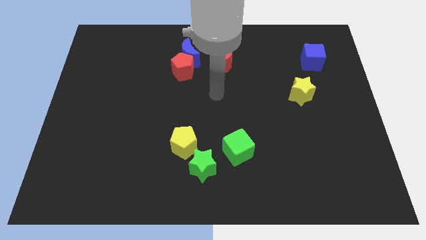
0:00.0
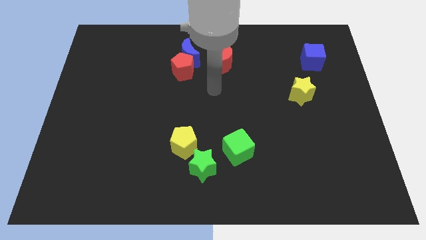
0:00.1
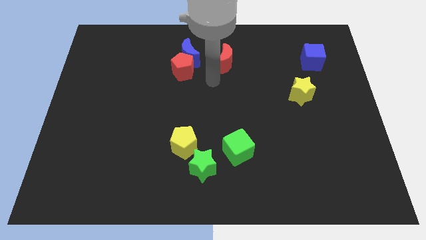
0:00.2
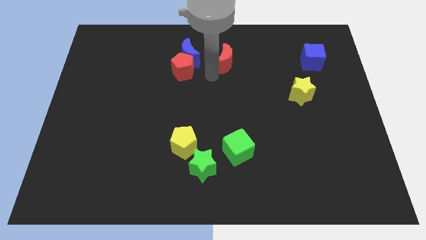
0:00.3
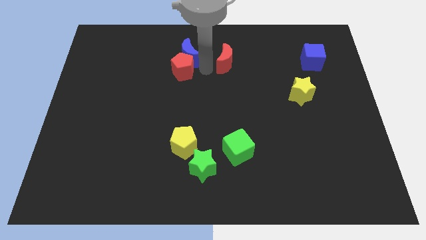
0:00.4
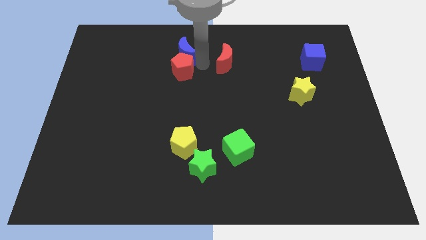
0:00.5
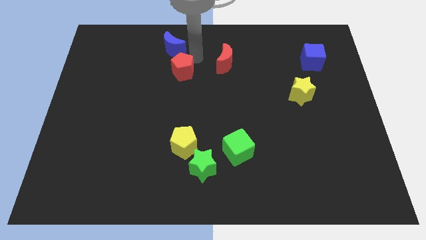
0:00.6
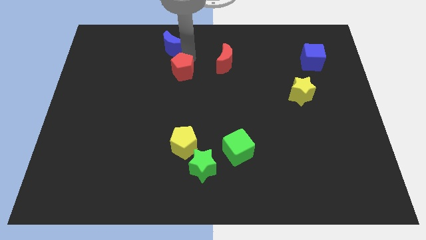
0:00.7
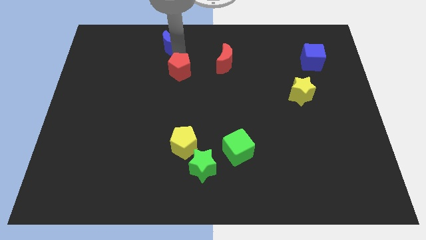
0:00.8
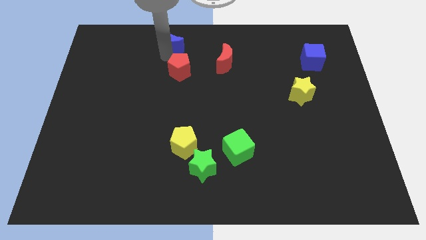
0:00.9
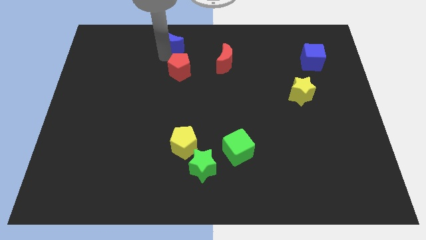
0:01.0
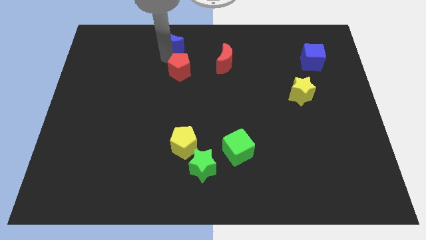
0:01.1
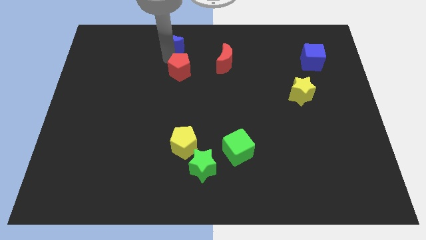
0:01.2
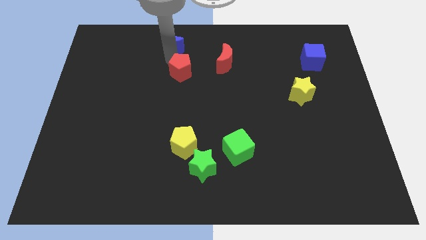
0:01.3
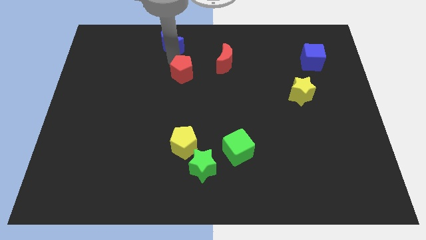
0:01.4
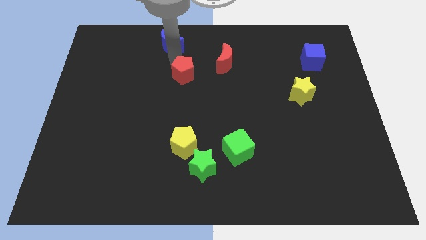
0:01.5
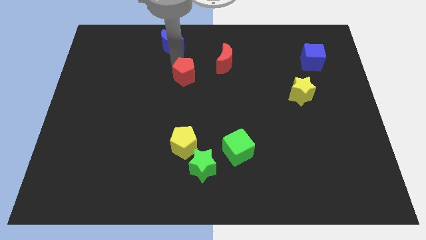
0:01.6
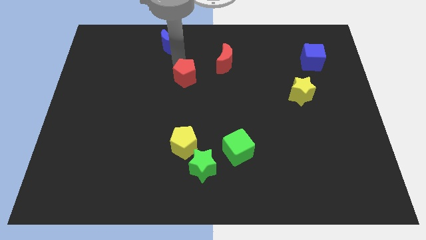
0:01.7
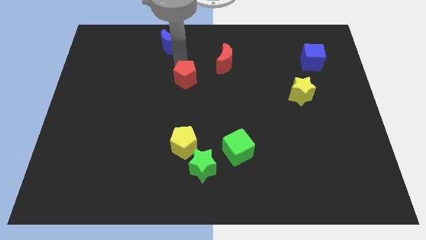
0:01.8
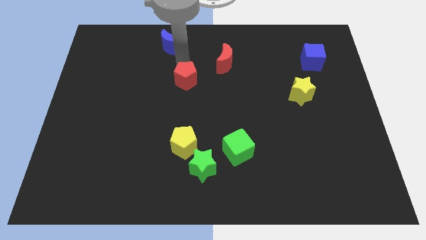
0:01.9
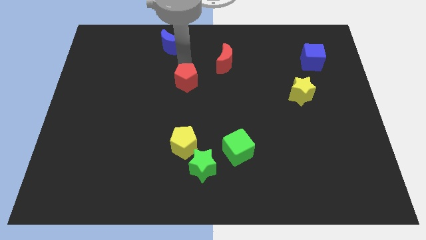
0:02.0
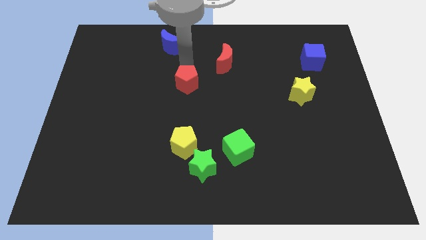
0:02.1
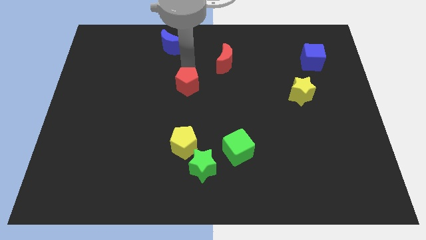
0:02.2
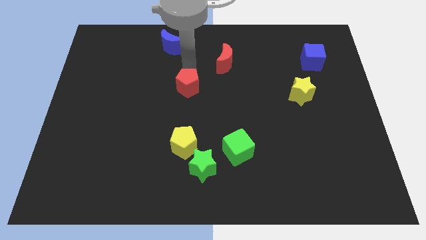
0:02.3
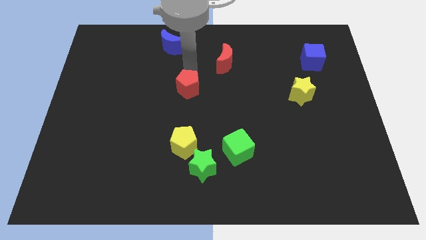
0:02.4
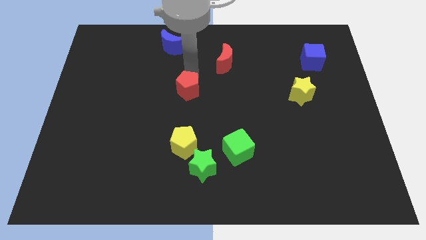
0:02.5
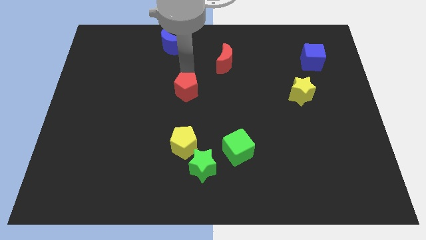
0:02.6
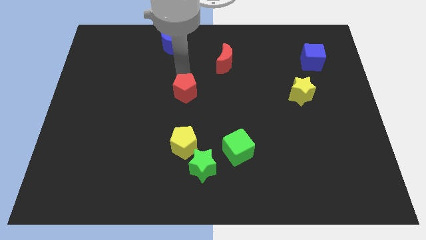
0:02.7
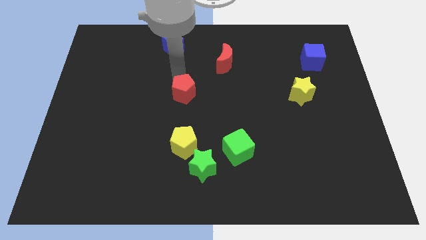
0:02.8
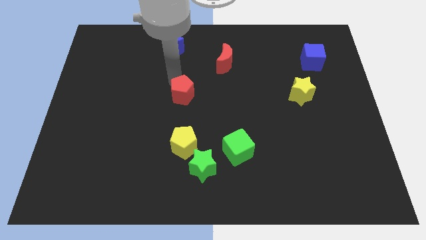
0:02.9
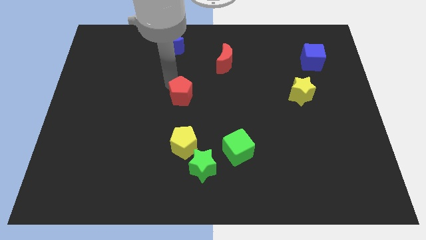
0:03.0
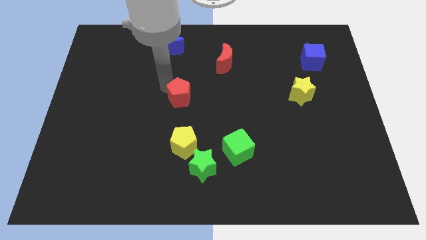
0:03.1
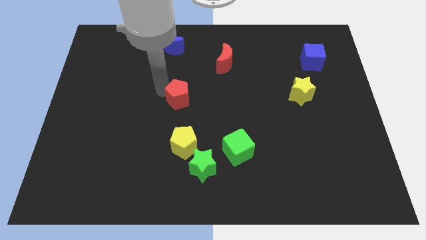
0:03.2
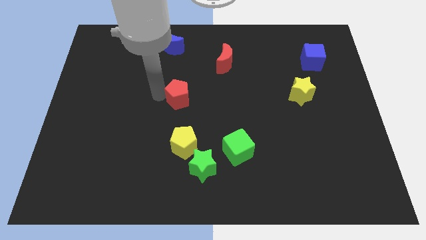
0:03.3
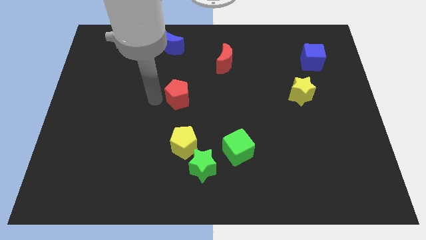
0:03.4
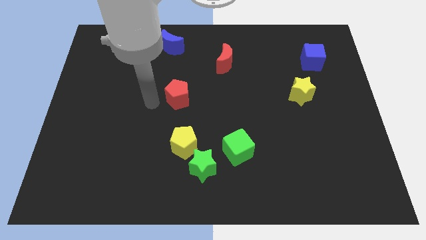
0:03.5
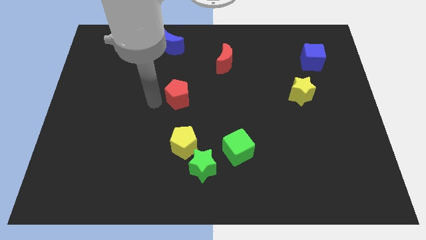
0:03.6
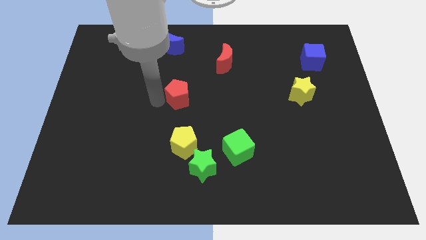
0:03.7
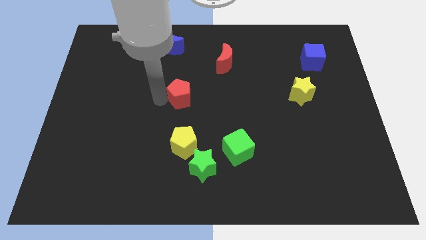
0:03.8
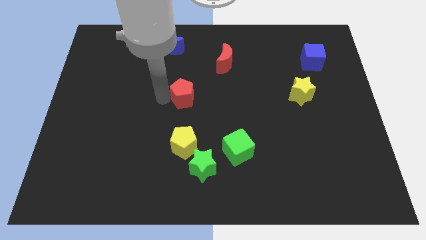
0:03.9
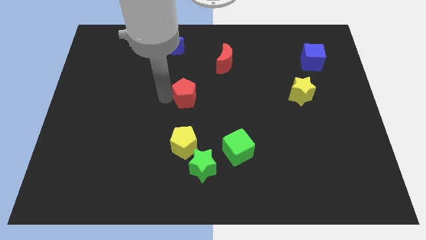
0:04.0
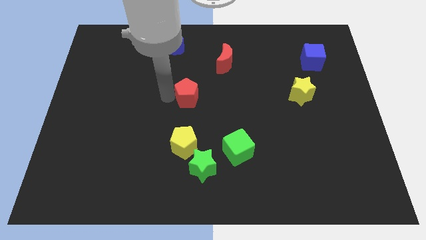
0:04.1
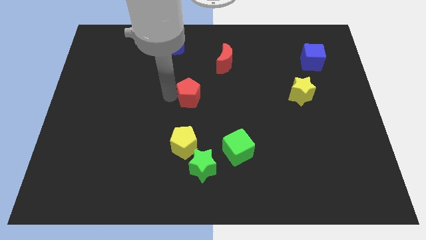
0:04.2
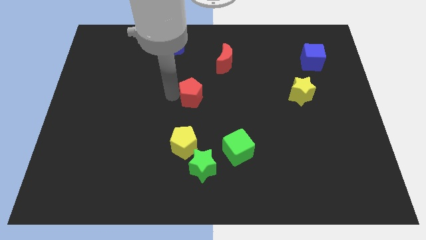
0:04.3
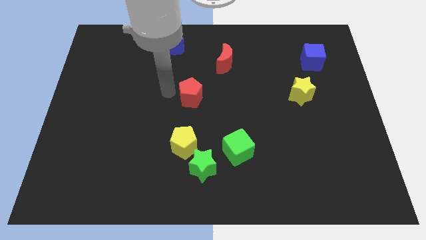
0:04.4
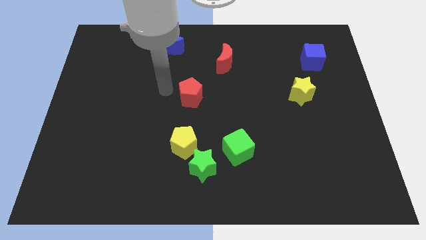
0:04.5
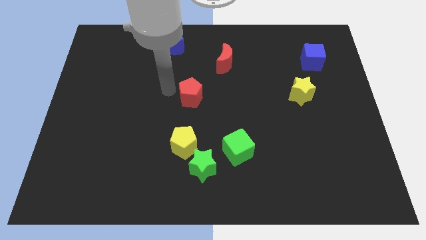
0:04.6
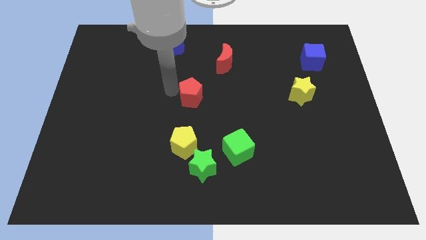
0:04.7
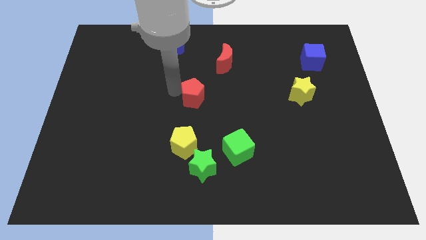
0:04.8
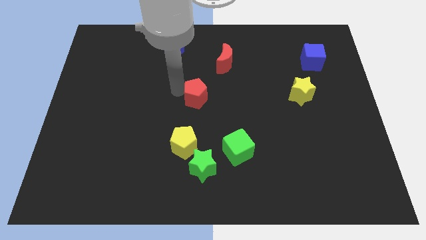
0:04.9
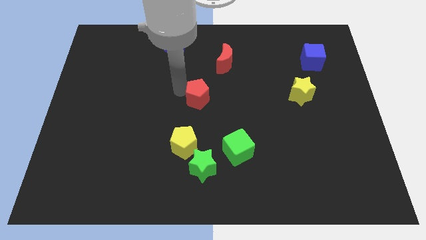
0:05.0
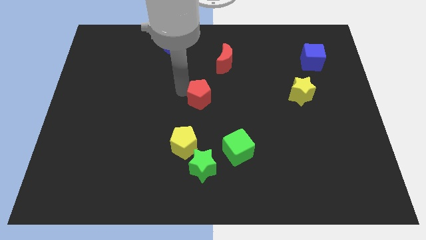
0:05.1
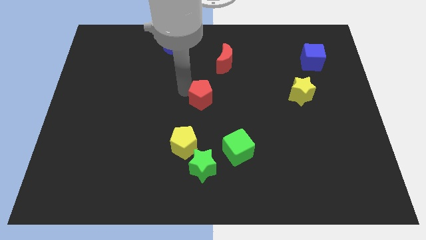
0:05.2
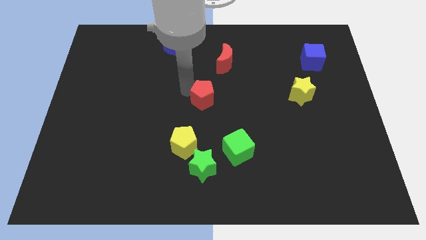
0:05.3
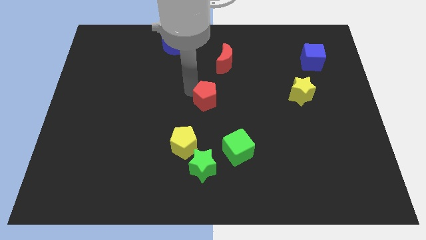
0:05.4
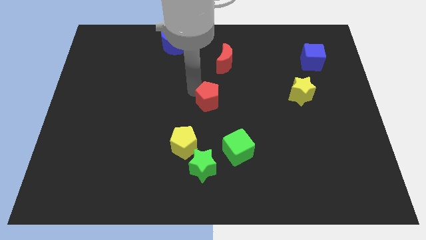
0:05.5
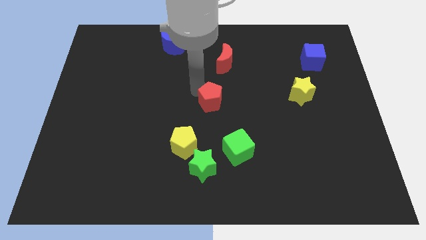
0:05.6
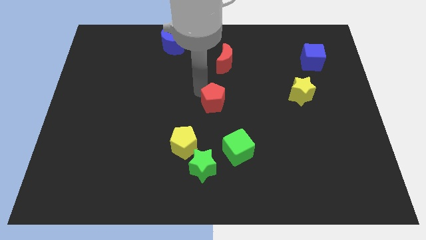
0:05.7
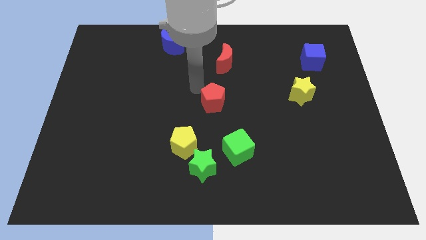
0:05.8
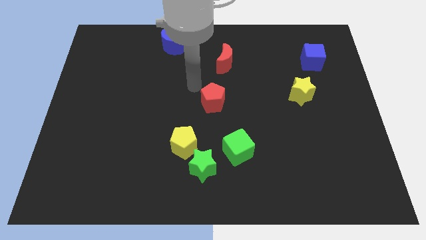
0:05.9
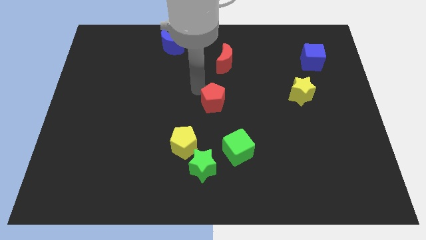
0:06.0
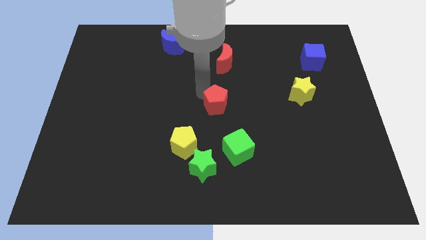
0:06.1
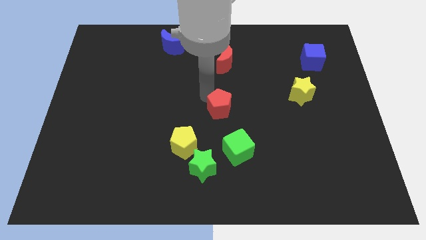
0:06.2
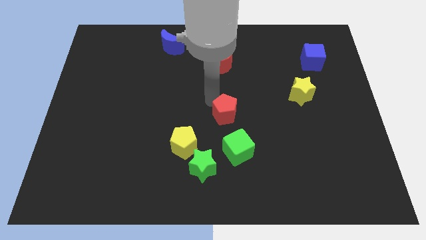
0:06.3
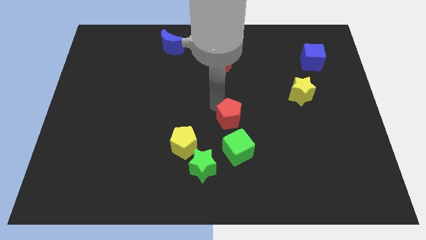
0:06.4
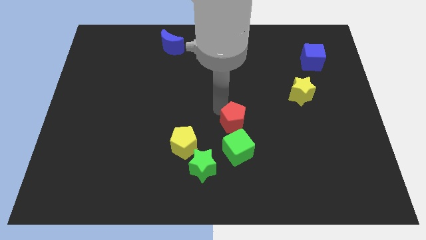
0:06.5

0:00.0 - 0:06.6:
push the red pentagon diagonally downwards and to the right

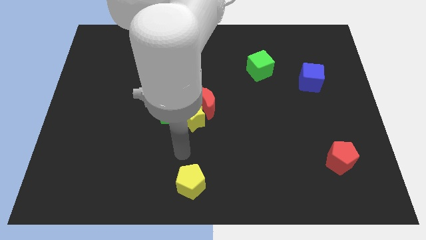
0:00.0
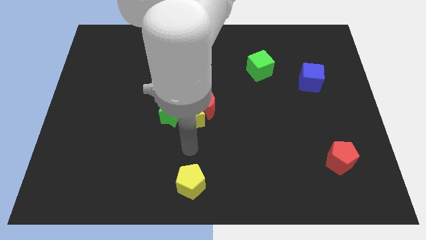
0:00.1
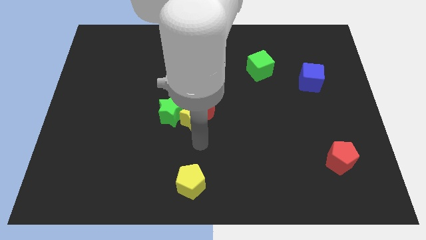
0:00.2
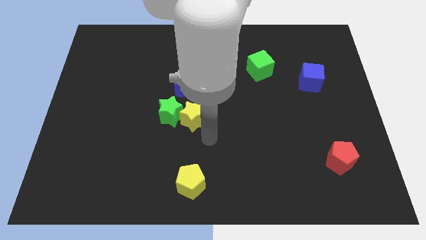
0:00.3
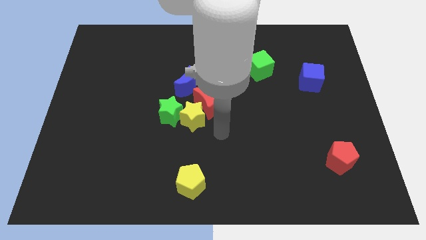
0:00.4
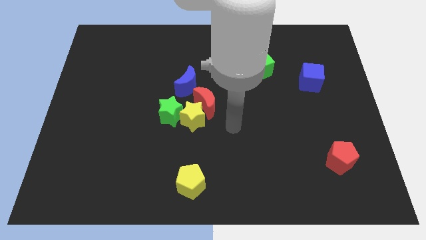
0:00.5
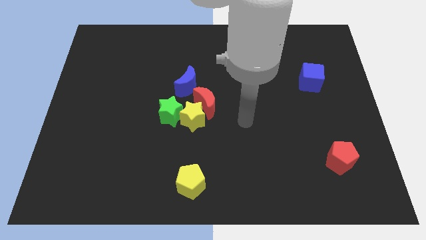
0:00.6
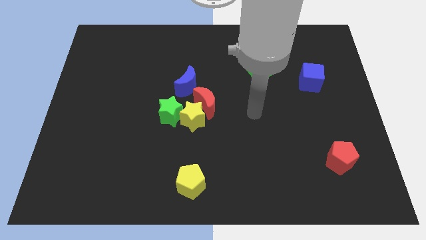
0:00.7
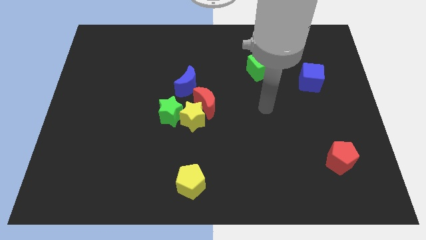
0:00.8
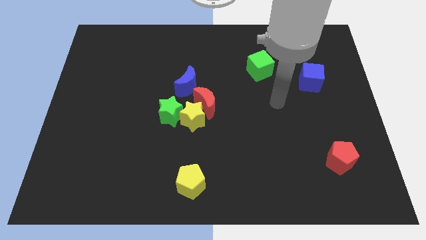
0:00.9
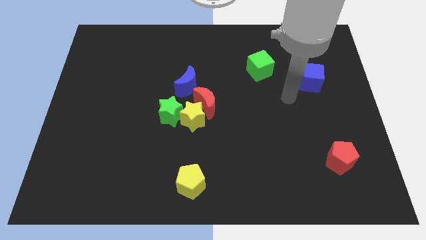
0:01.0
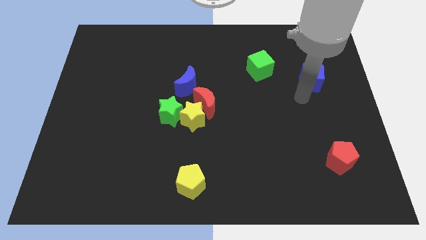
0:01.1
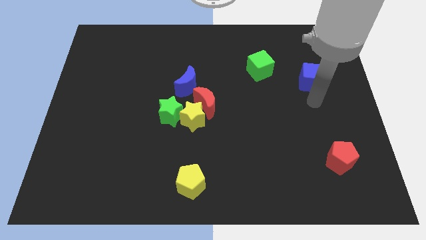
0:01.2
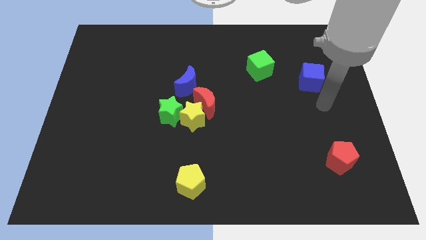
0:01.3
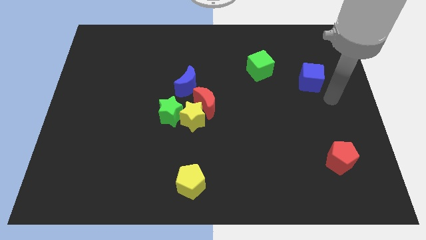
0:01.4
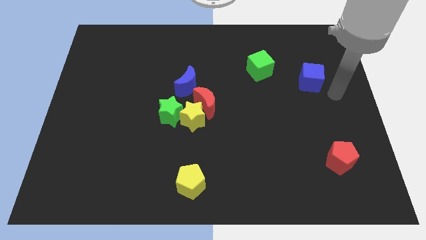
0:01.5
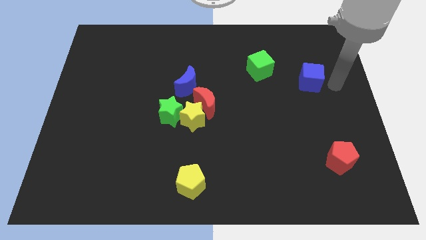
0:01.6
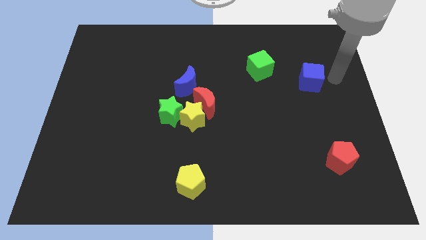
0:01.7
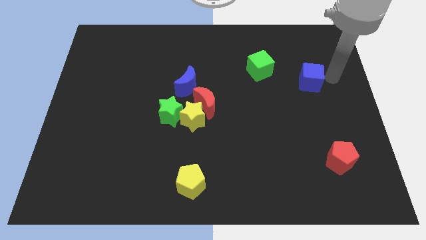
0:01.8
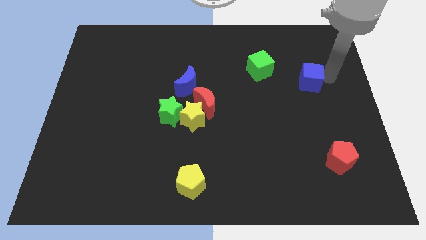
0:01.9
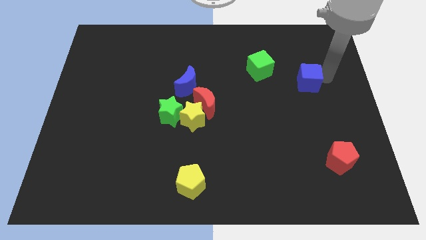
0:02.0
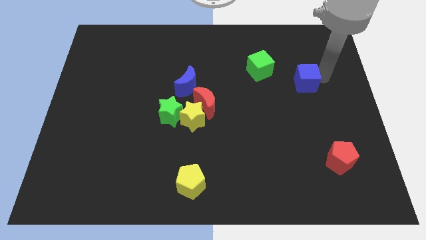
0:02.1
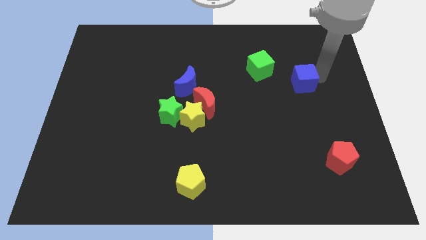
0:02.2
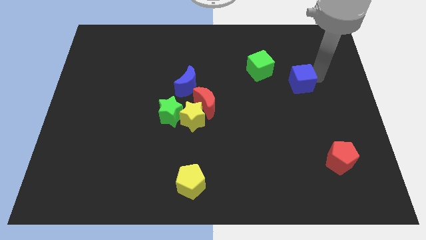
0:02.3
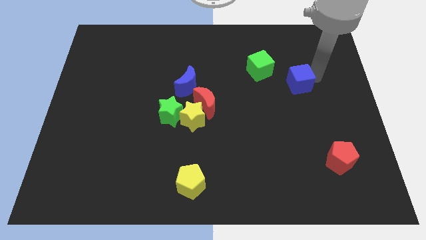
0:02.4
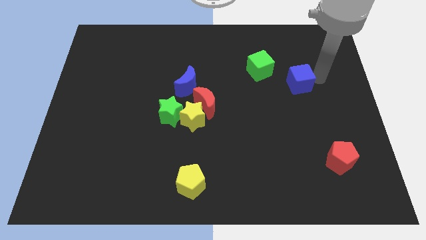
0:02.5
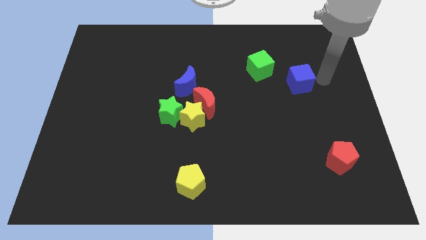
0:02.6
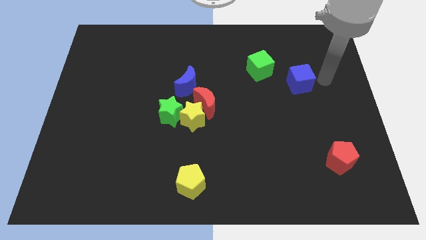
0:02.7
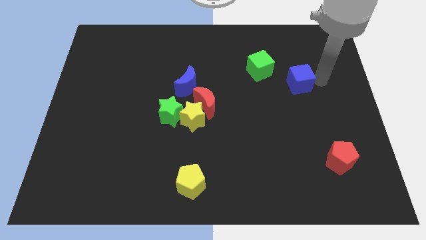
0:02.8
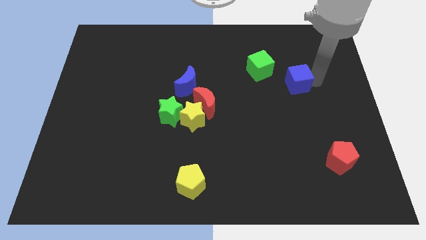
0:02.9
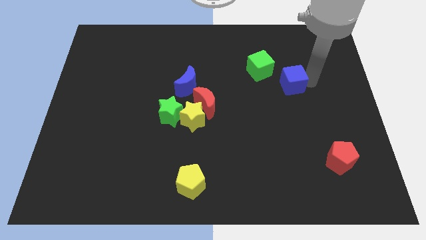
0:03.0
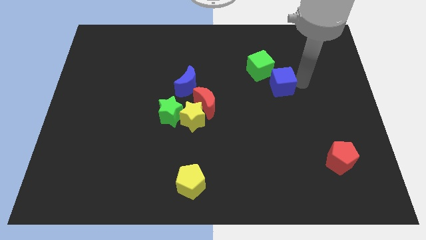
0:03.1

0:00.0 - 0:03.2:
move the blue cube slightly left
